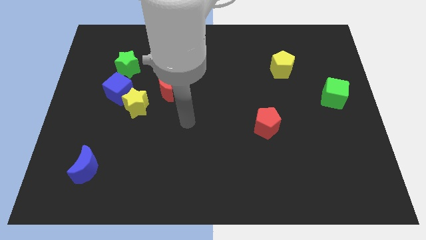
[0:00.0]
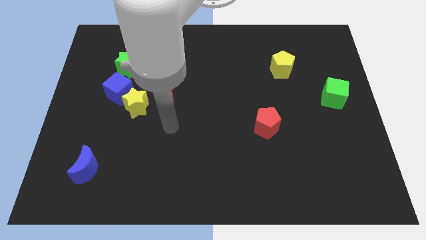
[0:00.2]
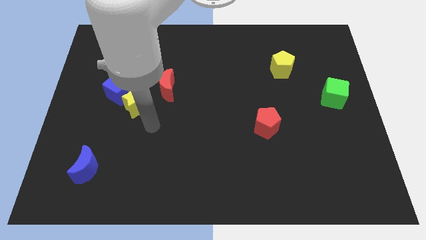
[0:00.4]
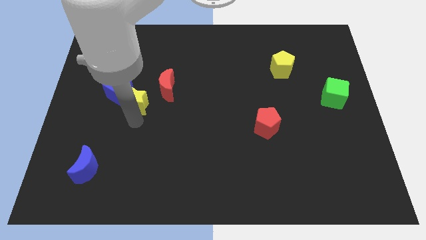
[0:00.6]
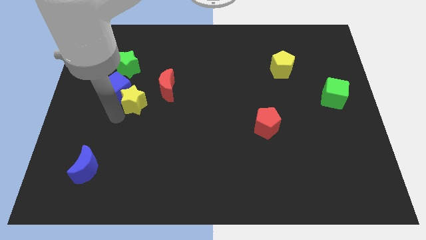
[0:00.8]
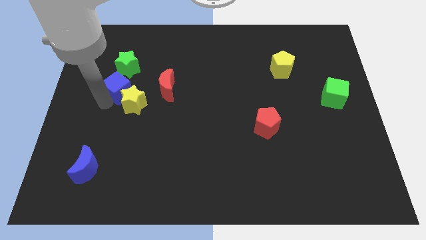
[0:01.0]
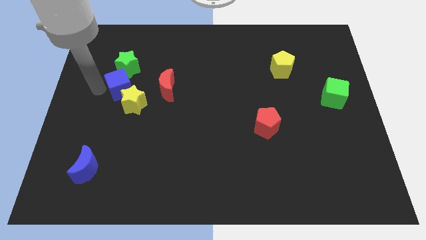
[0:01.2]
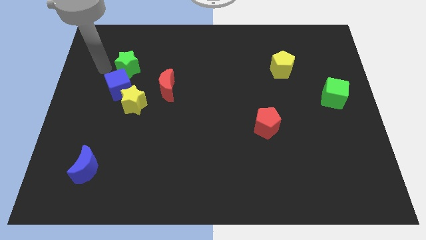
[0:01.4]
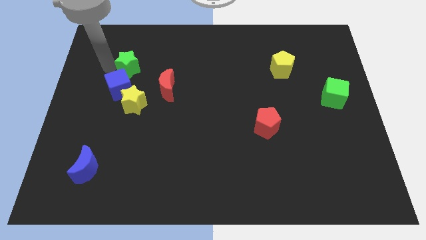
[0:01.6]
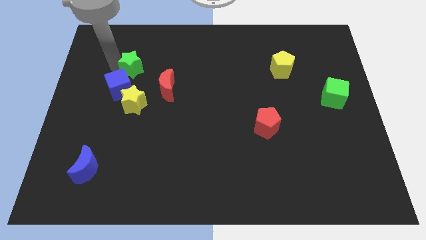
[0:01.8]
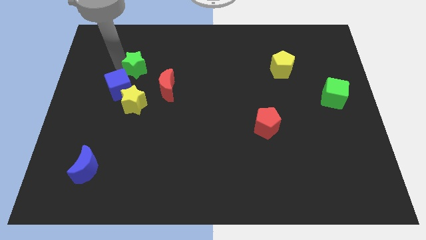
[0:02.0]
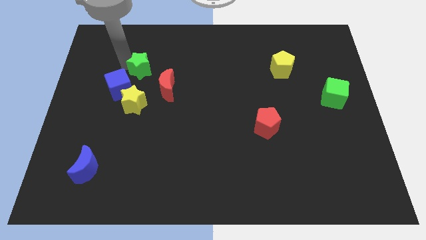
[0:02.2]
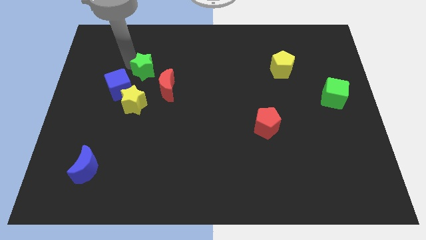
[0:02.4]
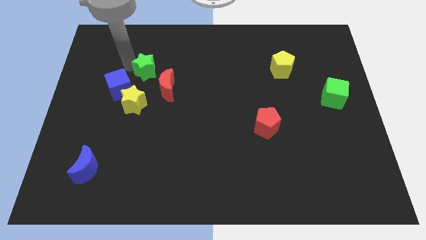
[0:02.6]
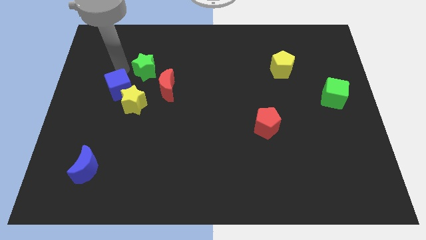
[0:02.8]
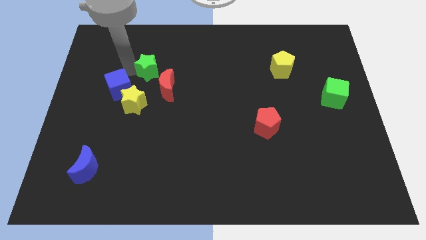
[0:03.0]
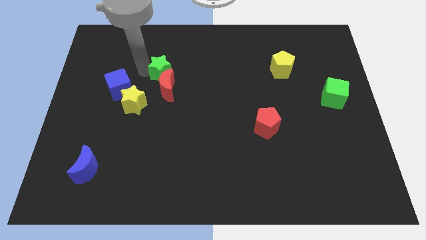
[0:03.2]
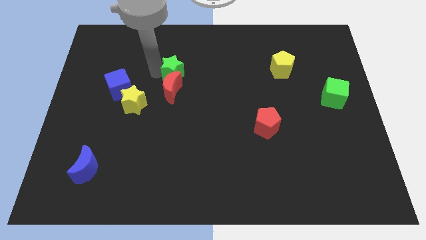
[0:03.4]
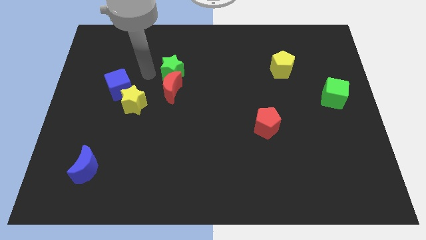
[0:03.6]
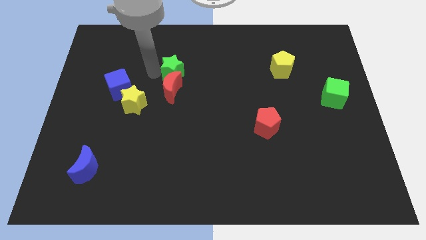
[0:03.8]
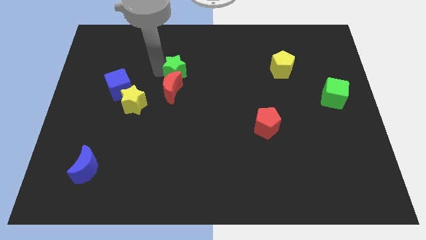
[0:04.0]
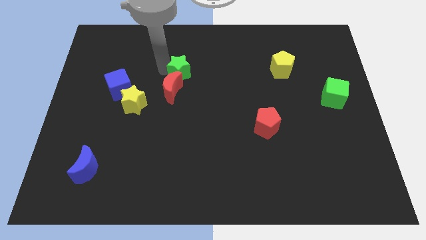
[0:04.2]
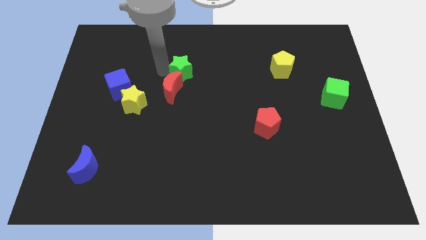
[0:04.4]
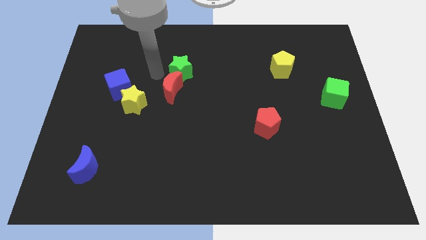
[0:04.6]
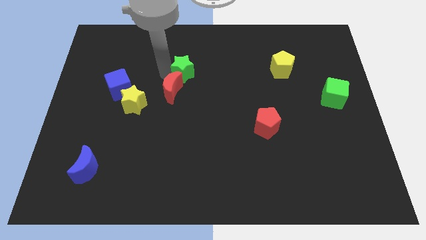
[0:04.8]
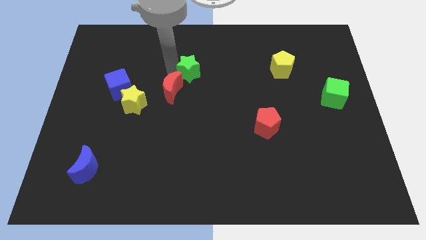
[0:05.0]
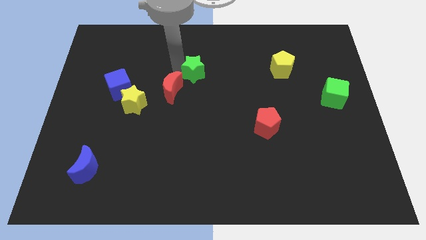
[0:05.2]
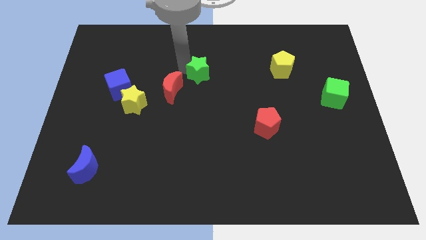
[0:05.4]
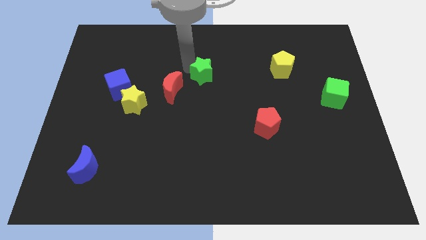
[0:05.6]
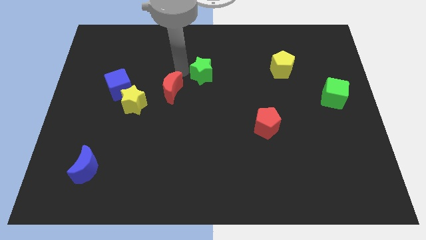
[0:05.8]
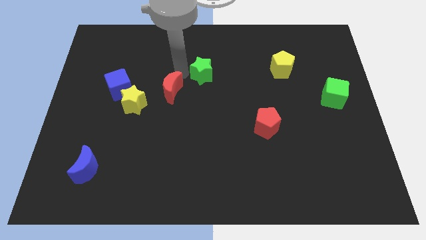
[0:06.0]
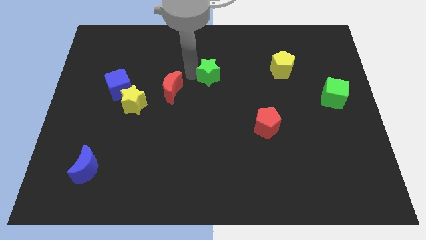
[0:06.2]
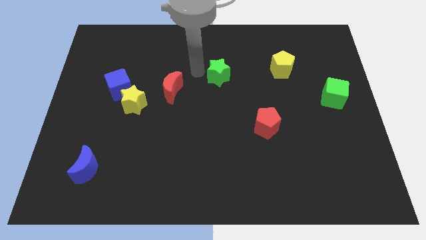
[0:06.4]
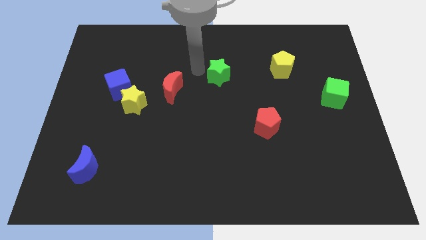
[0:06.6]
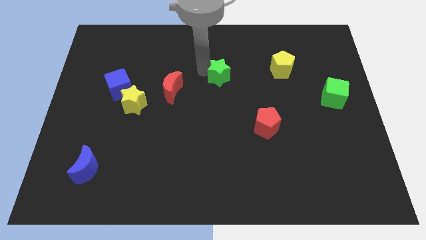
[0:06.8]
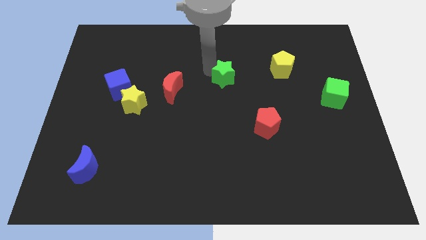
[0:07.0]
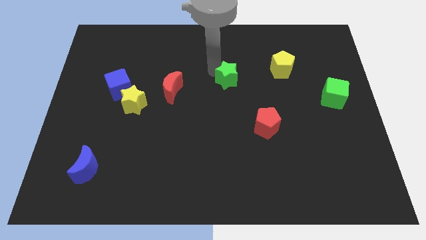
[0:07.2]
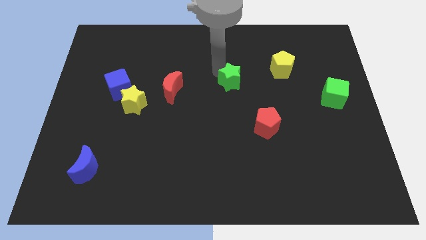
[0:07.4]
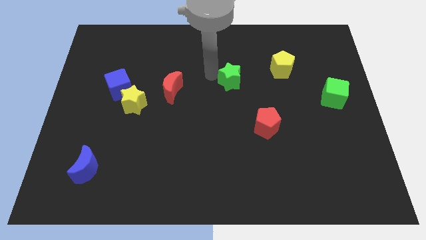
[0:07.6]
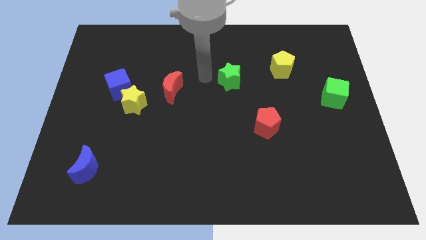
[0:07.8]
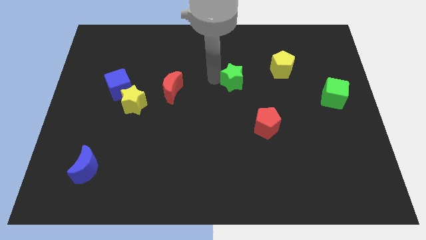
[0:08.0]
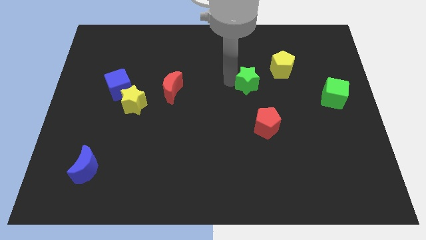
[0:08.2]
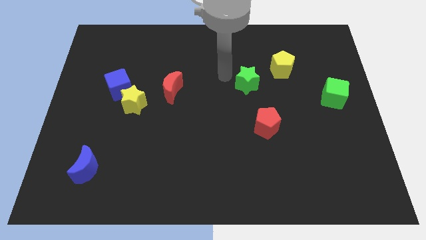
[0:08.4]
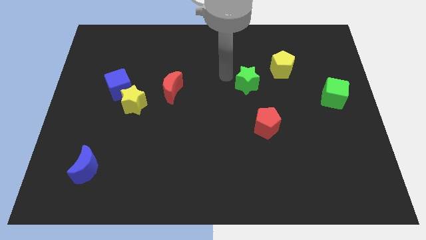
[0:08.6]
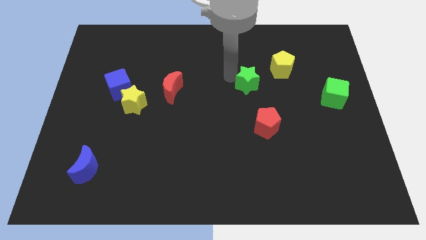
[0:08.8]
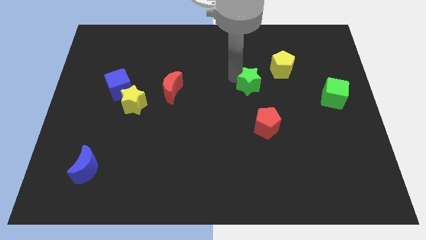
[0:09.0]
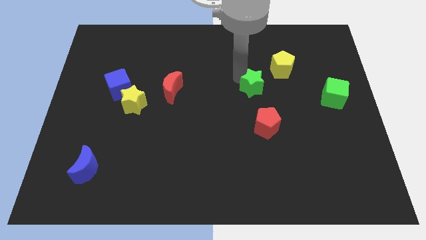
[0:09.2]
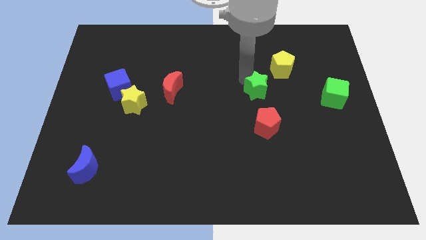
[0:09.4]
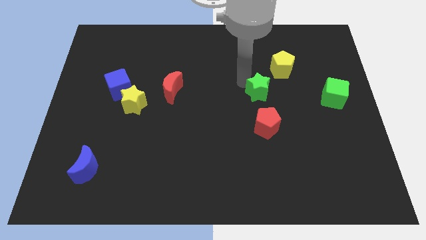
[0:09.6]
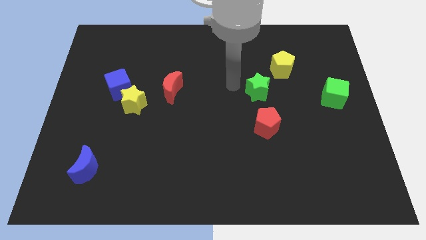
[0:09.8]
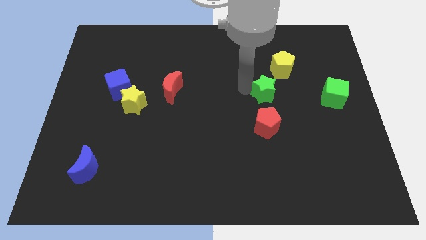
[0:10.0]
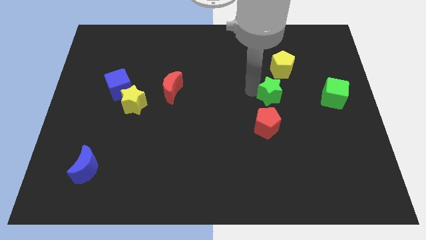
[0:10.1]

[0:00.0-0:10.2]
slide the green star below the yellow pentagon

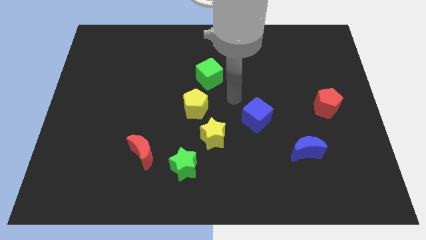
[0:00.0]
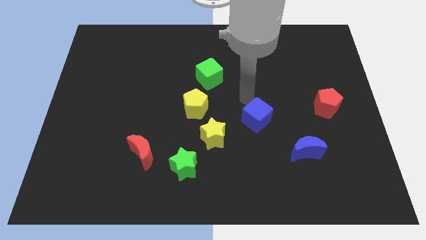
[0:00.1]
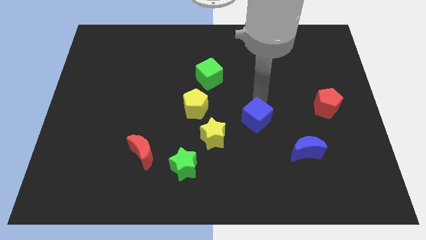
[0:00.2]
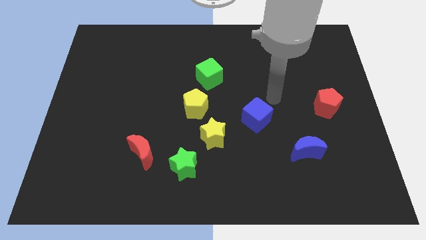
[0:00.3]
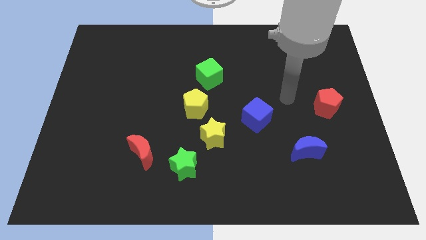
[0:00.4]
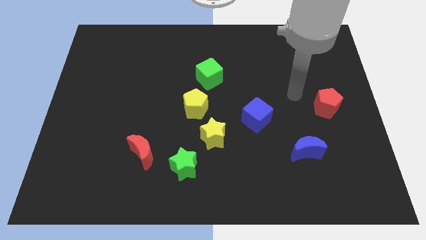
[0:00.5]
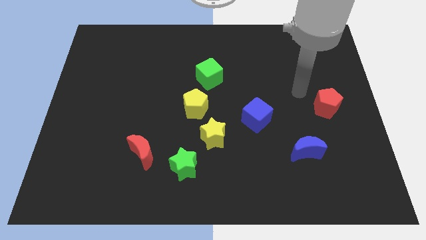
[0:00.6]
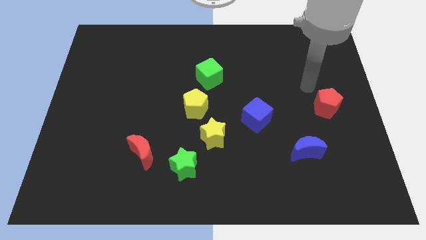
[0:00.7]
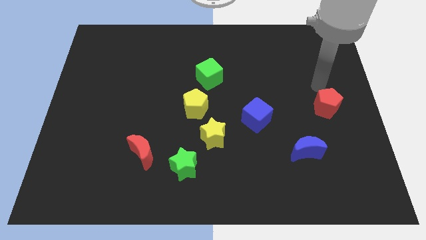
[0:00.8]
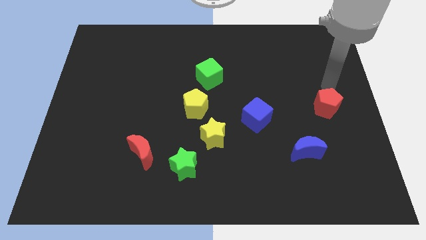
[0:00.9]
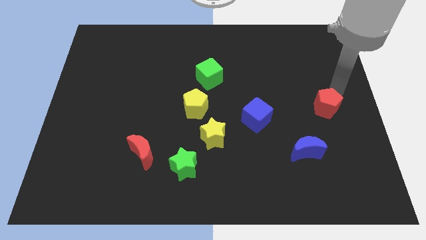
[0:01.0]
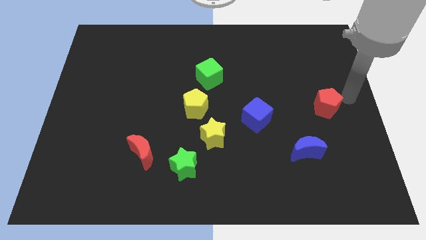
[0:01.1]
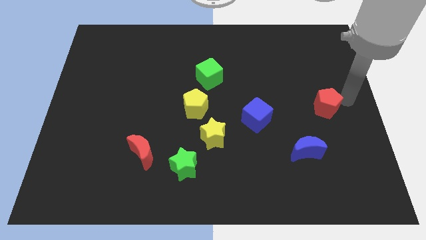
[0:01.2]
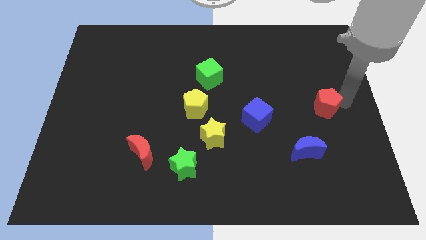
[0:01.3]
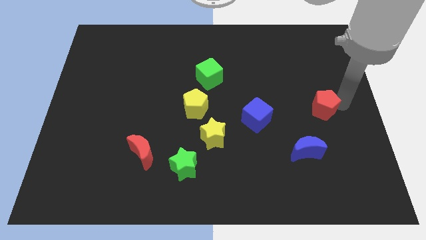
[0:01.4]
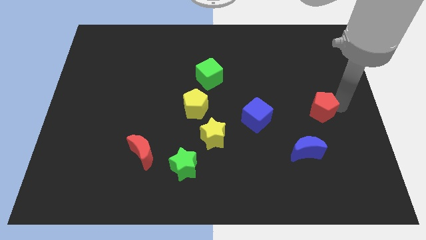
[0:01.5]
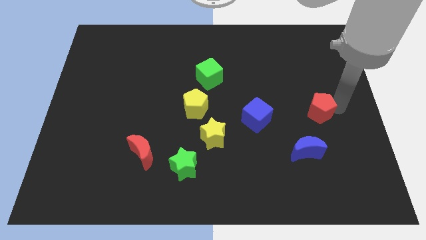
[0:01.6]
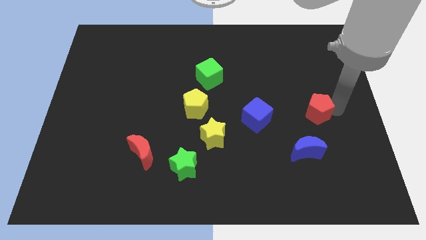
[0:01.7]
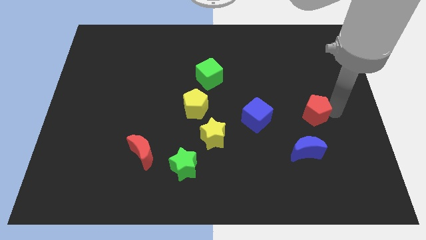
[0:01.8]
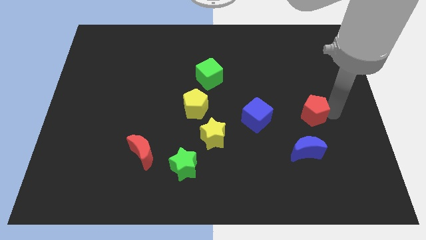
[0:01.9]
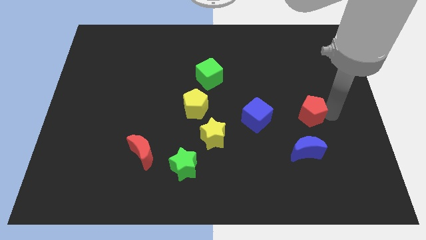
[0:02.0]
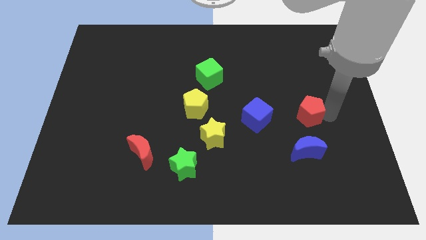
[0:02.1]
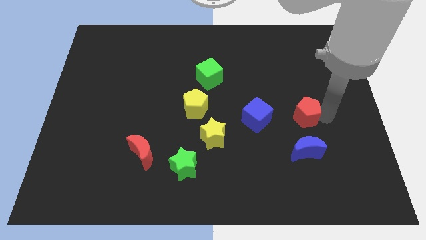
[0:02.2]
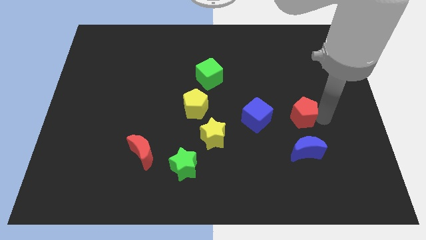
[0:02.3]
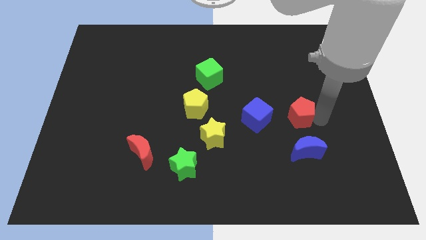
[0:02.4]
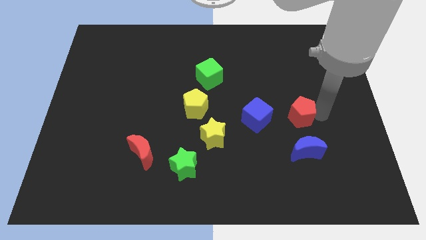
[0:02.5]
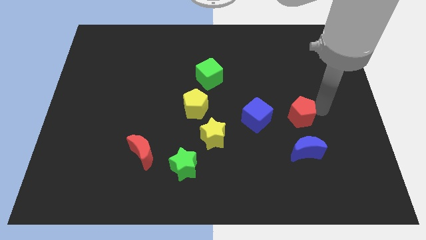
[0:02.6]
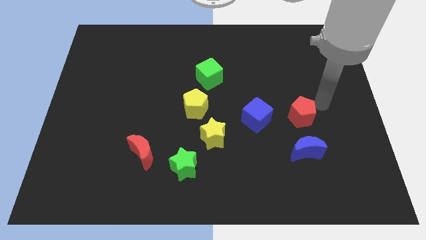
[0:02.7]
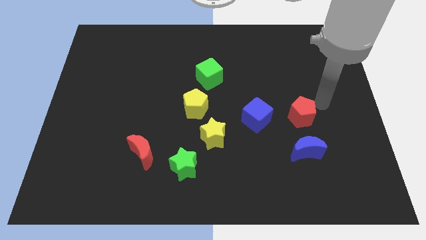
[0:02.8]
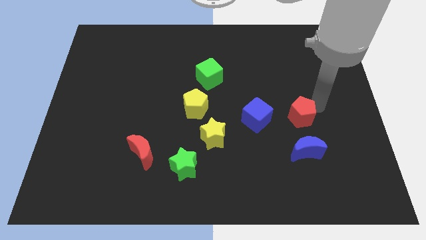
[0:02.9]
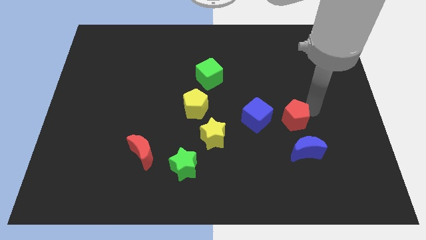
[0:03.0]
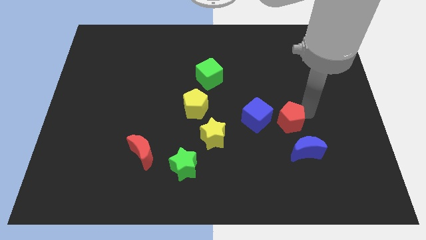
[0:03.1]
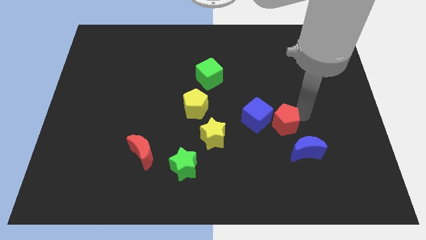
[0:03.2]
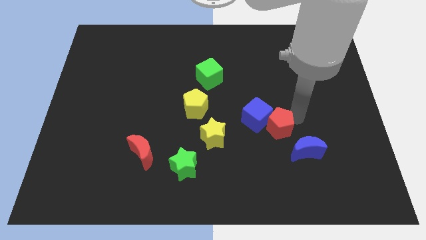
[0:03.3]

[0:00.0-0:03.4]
put the red pentagon to the right of the yellow star
